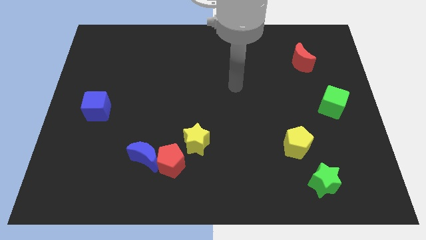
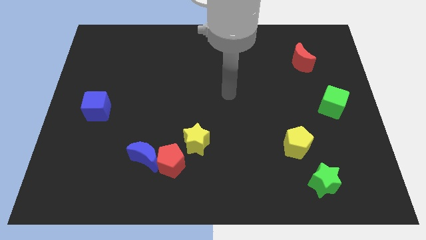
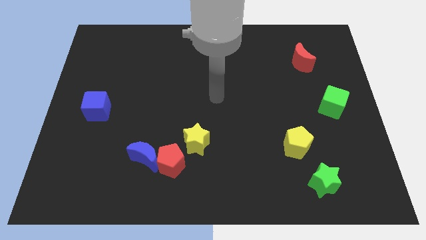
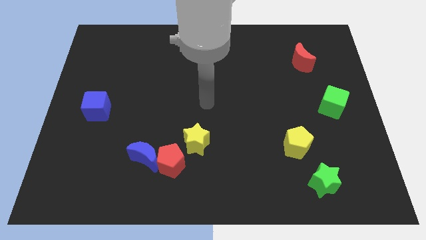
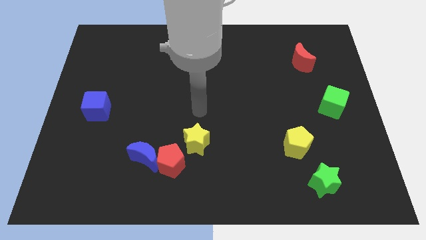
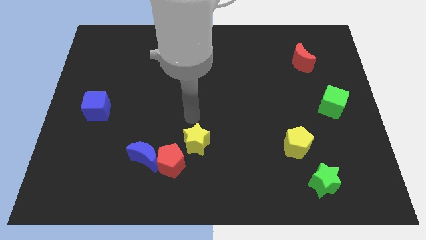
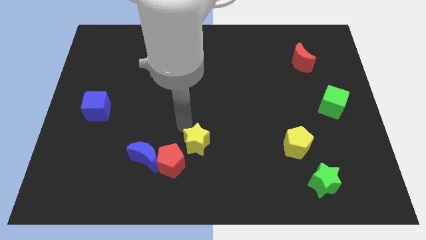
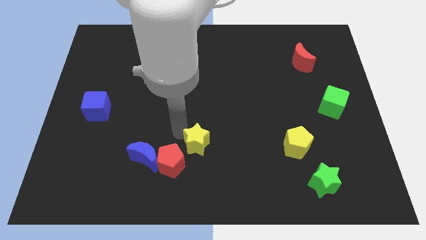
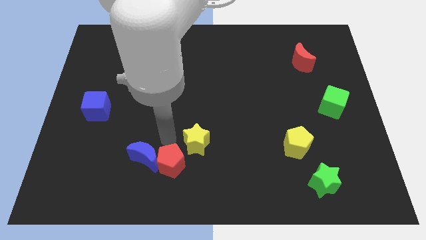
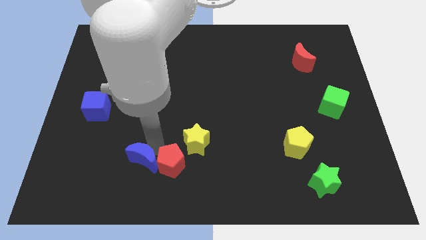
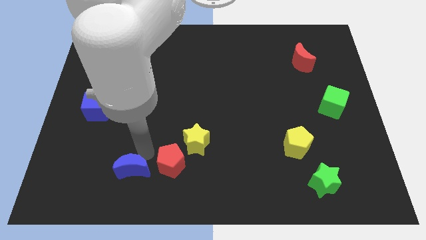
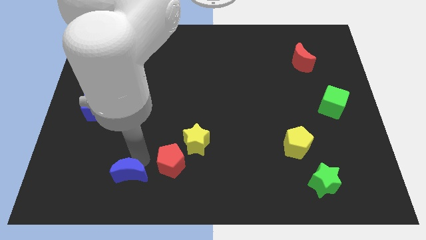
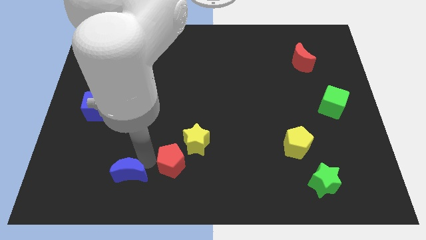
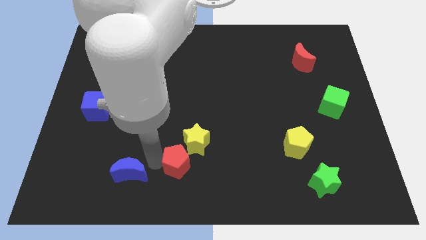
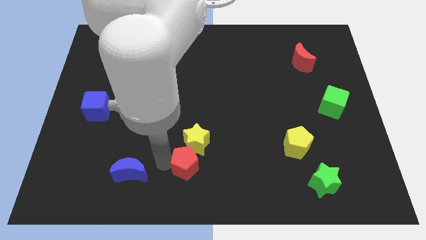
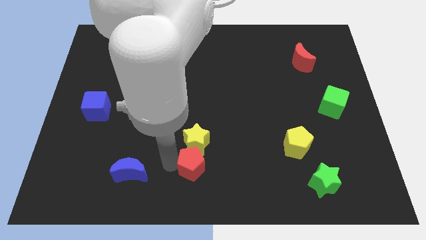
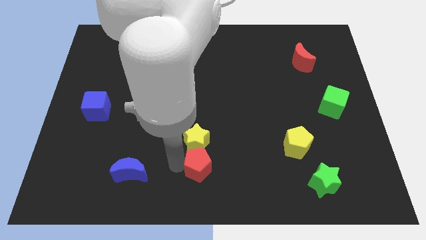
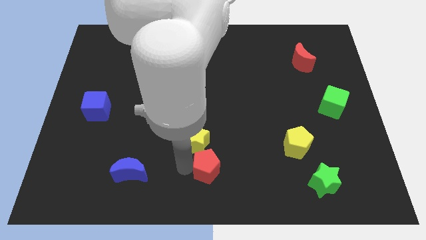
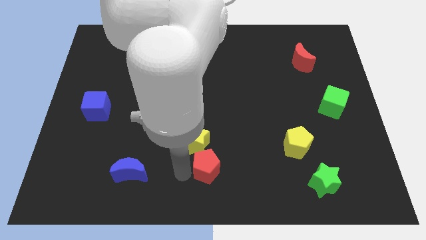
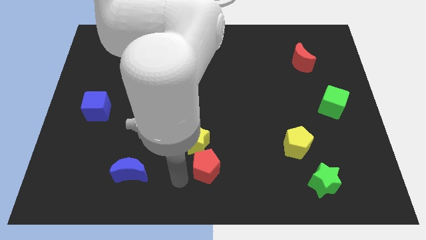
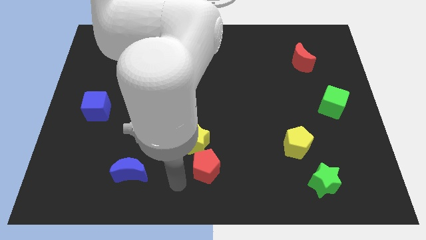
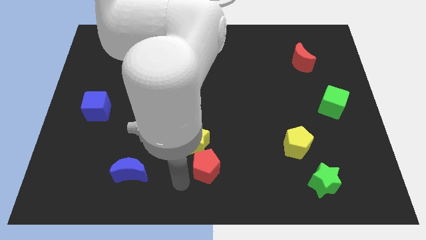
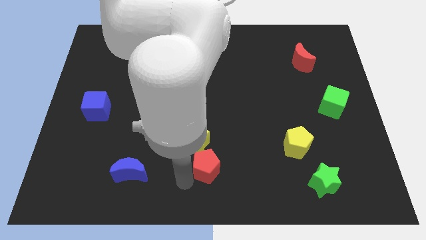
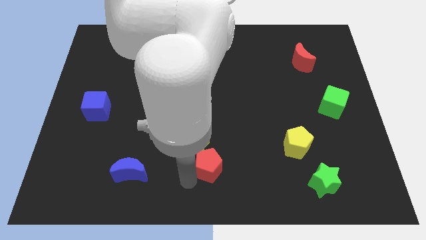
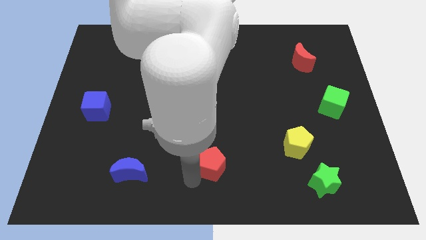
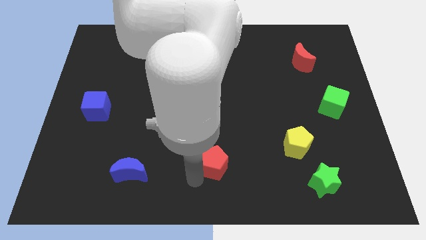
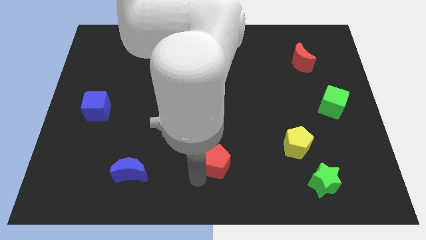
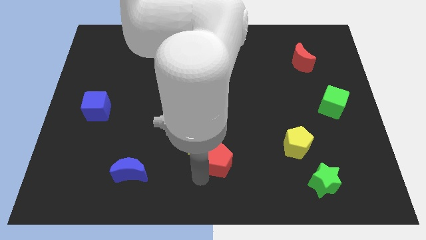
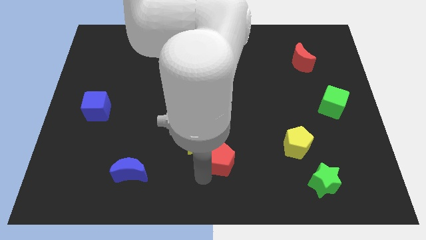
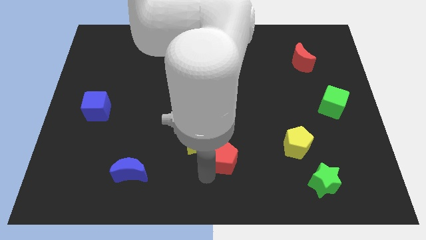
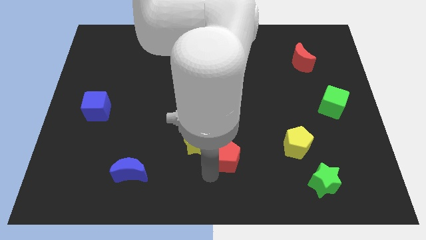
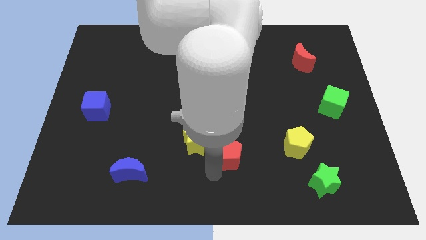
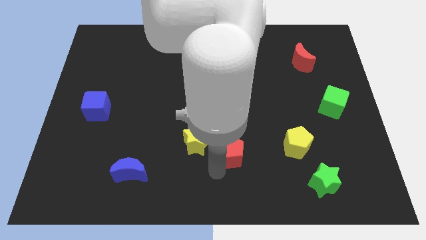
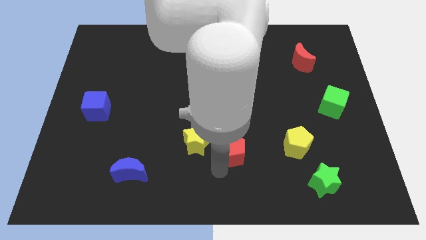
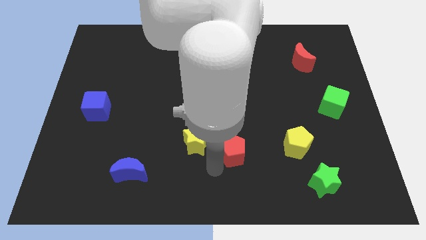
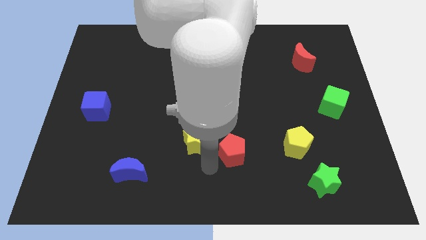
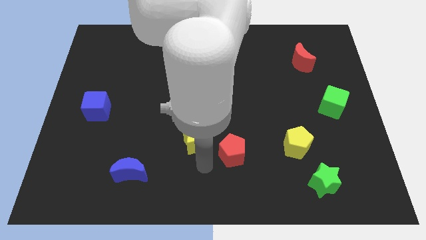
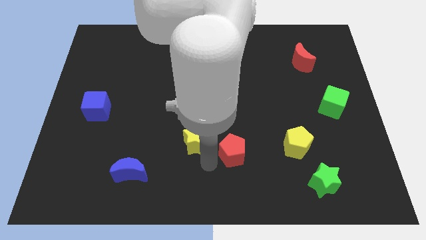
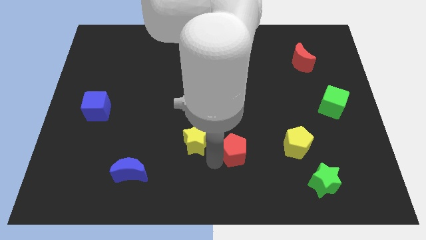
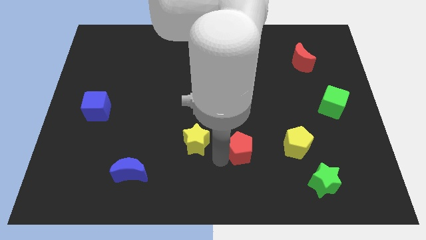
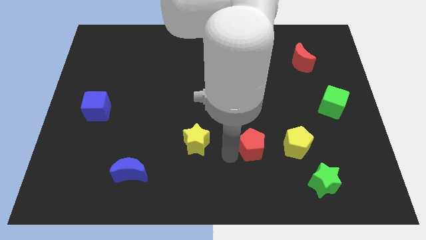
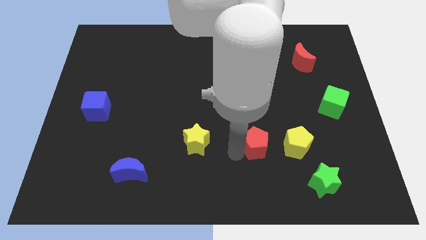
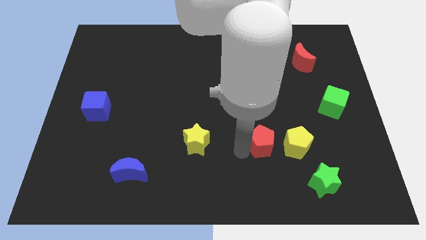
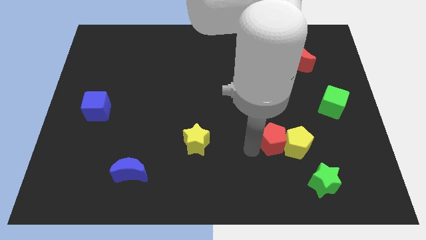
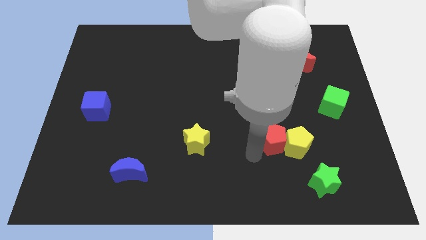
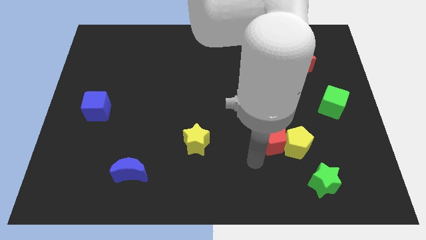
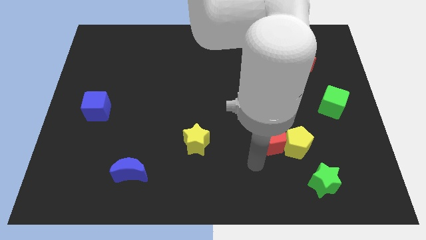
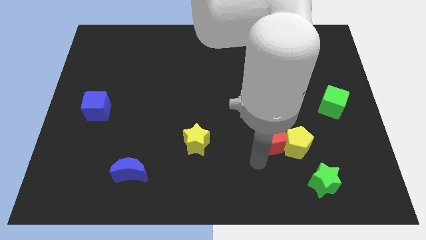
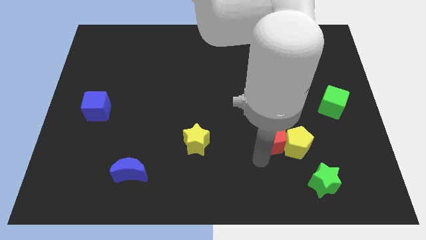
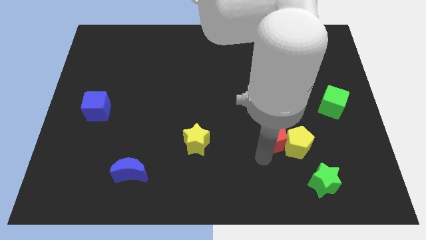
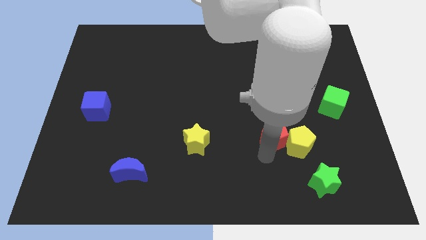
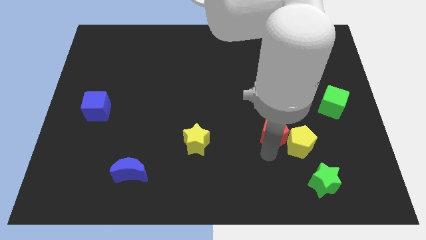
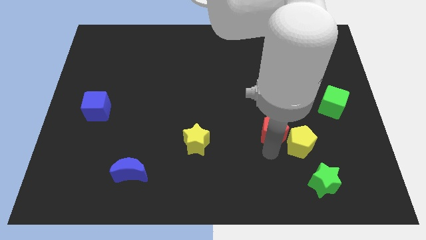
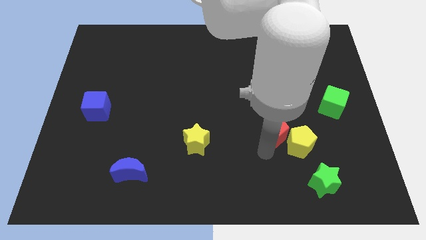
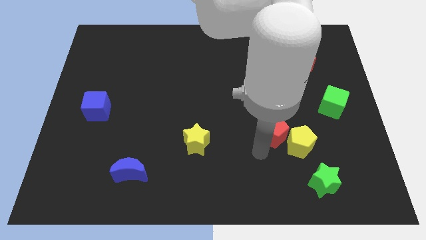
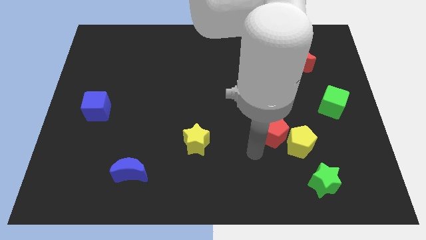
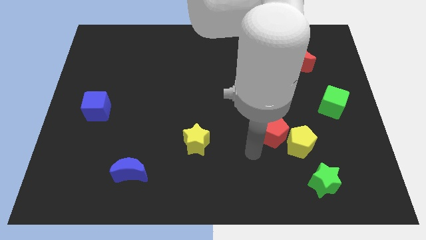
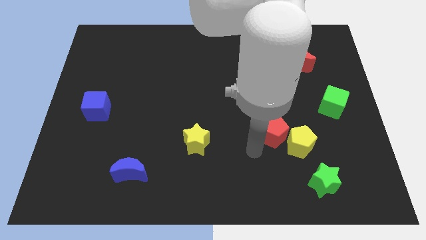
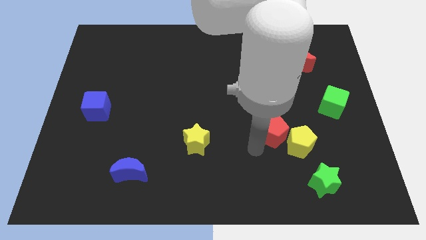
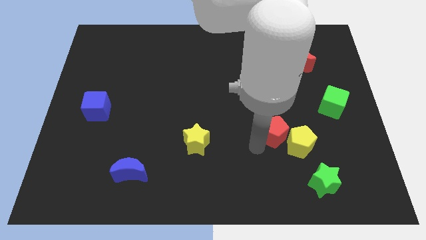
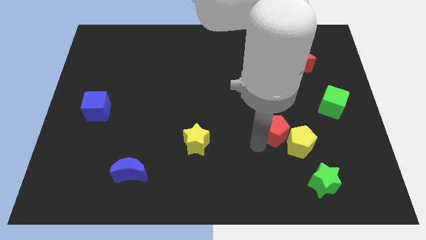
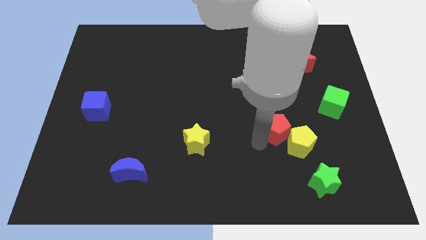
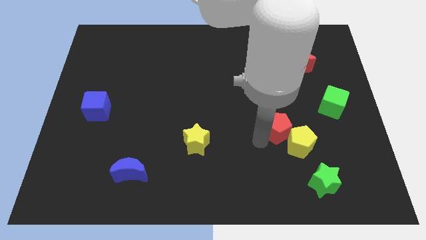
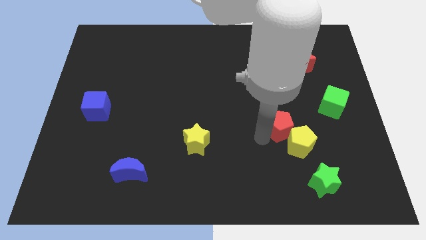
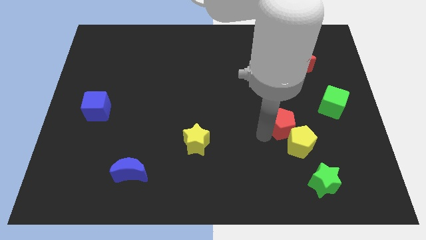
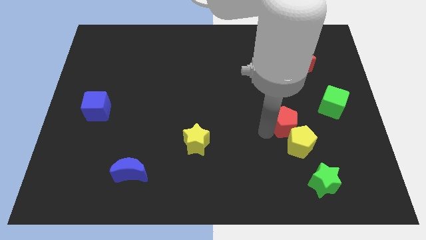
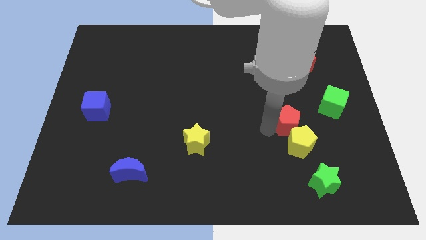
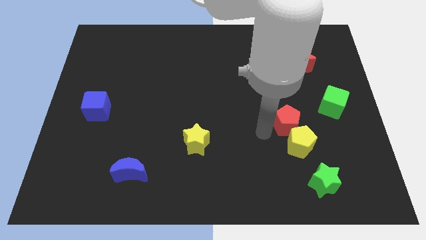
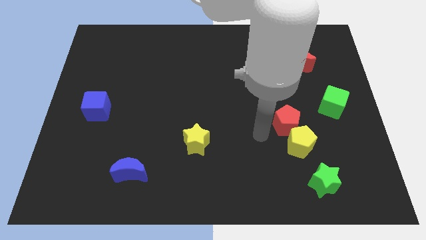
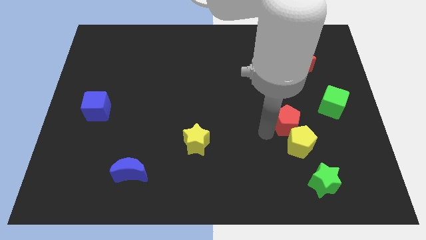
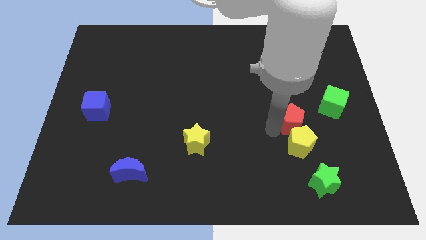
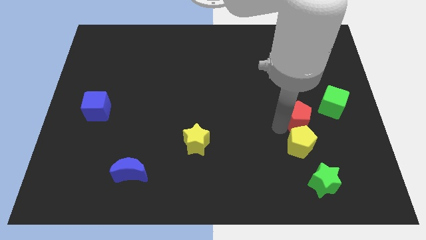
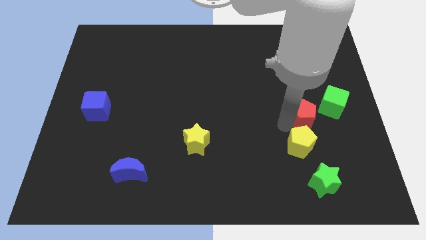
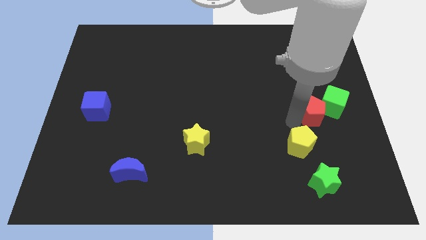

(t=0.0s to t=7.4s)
put the red pentagon close to the green cube
